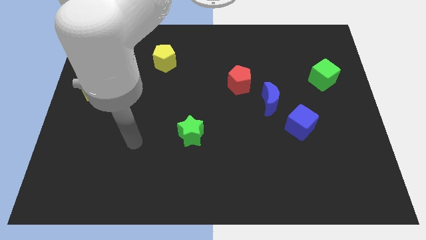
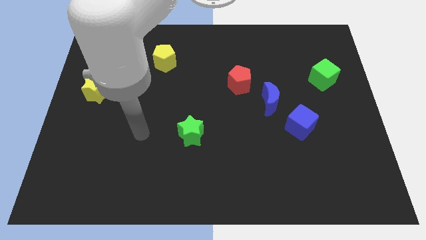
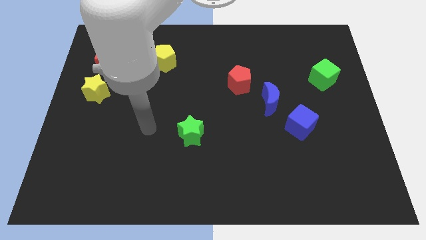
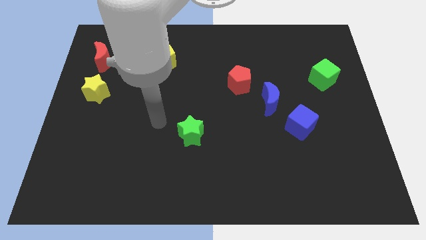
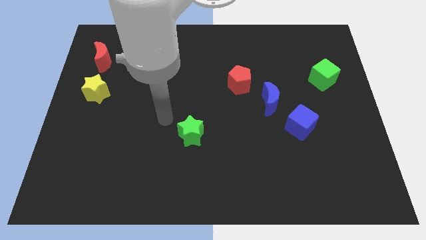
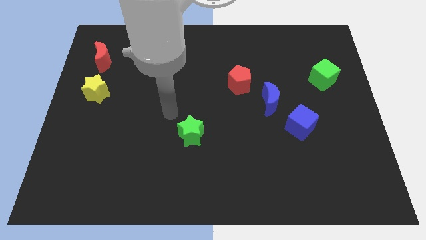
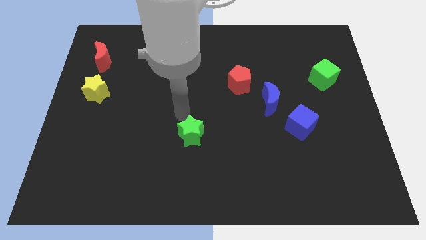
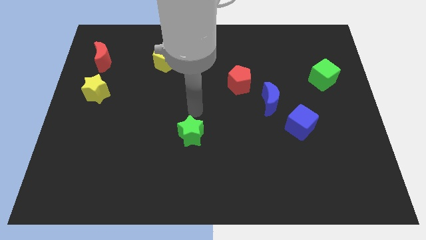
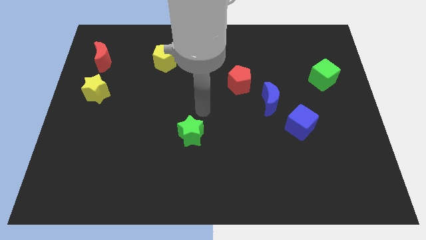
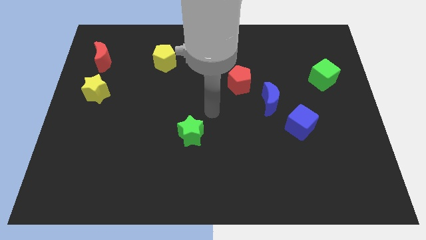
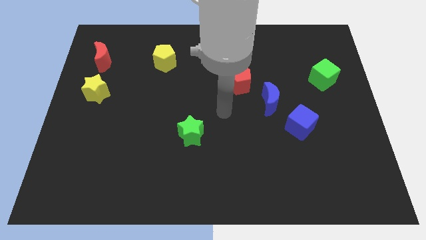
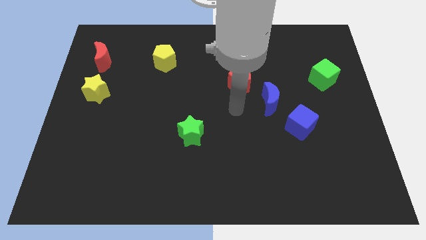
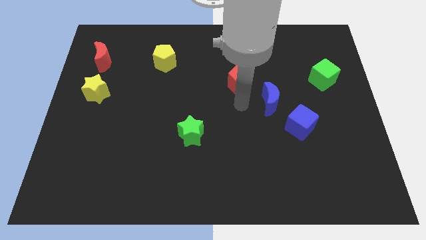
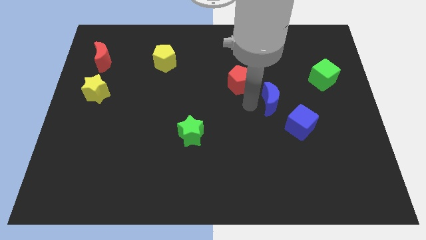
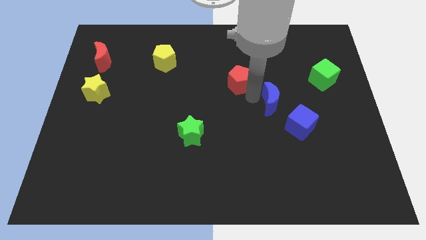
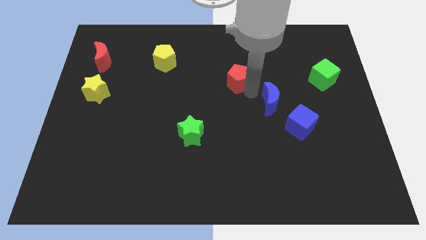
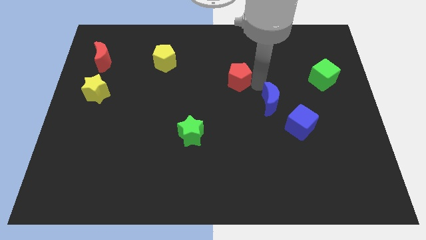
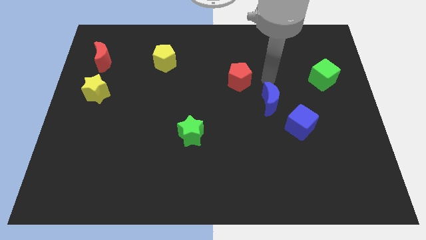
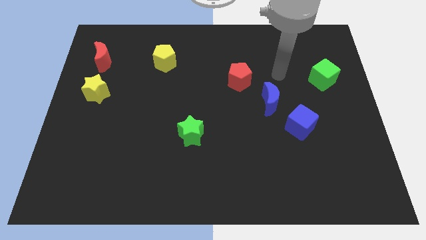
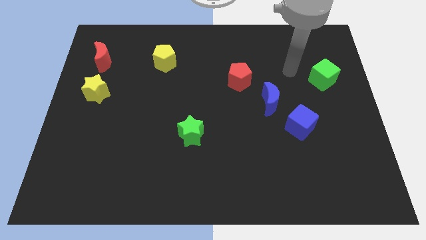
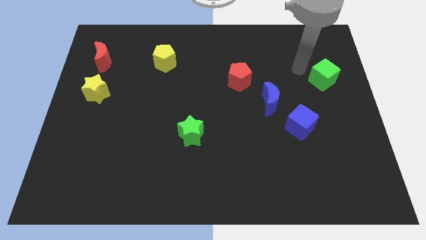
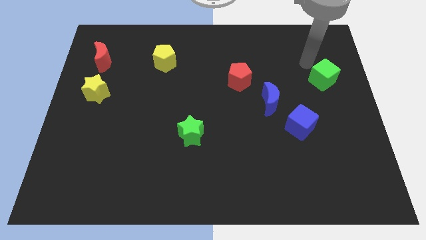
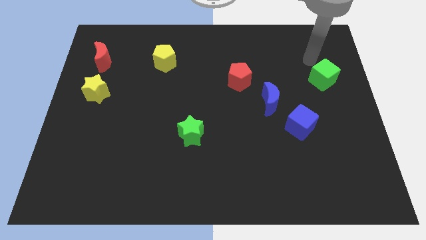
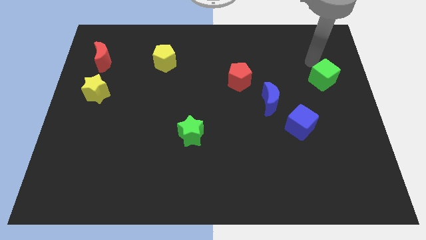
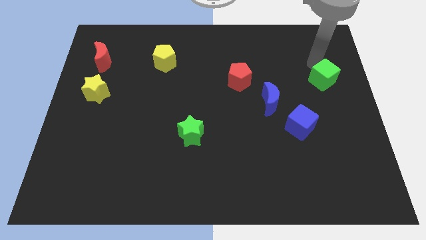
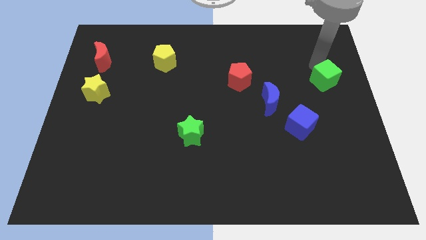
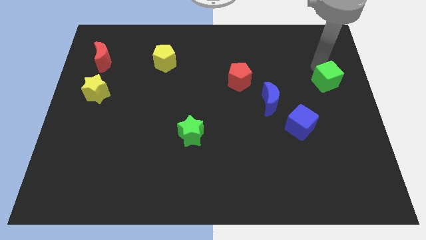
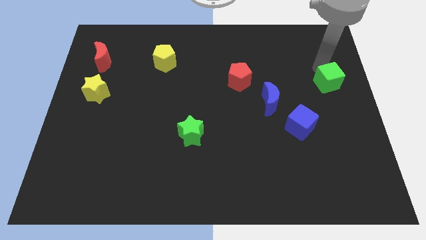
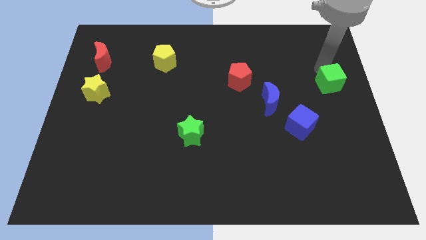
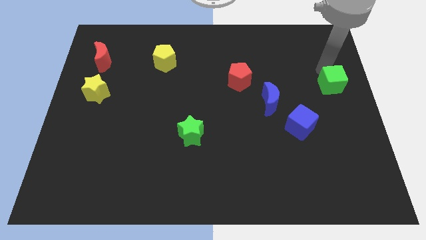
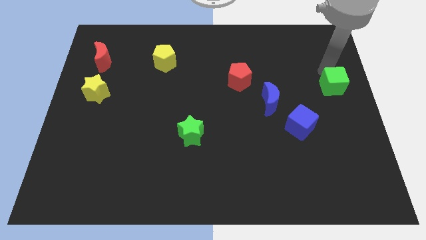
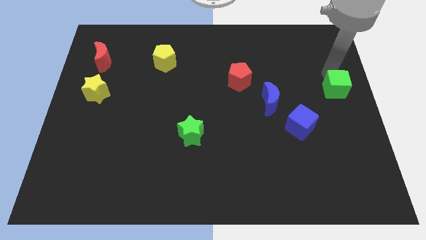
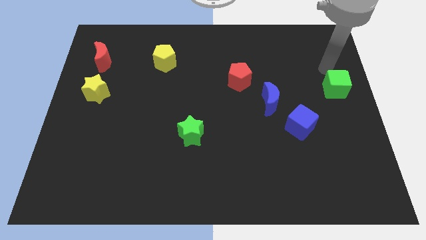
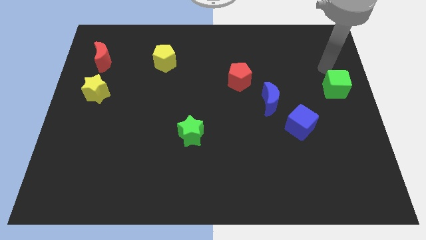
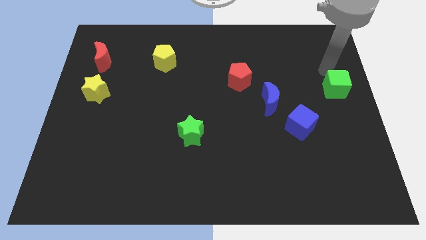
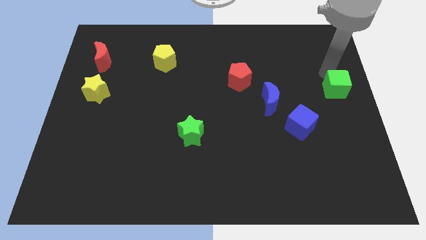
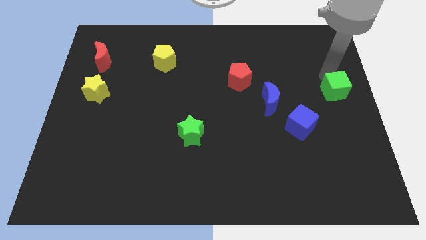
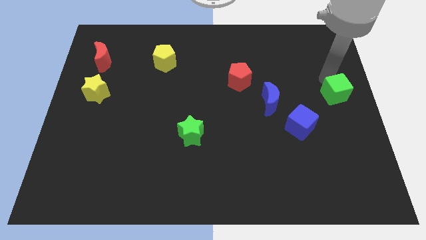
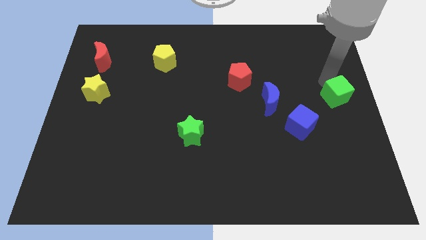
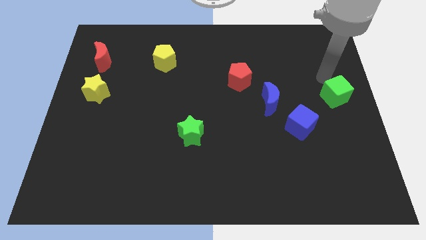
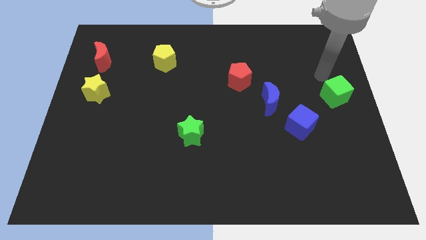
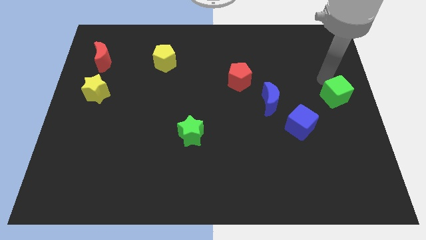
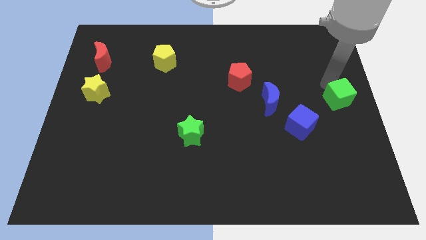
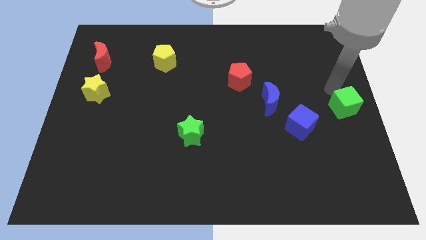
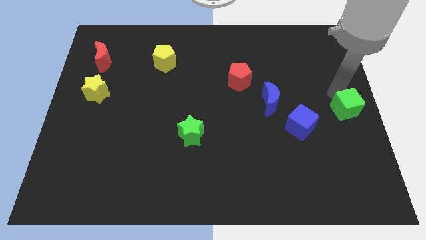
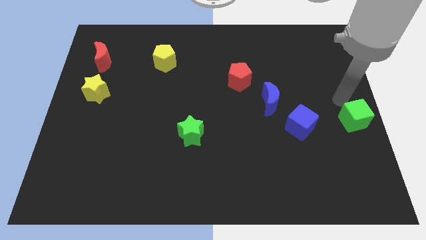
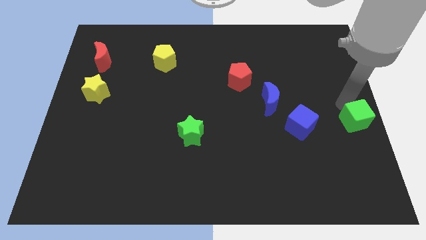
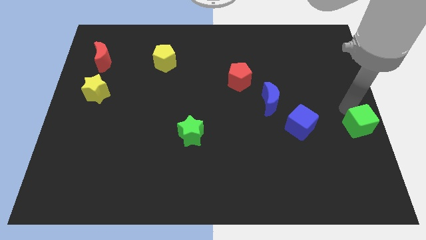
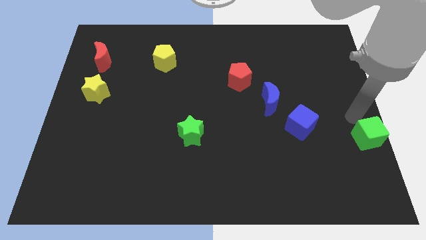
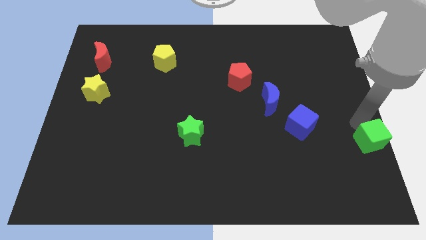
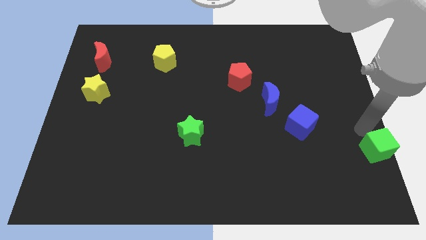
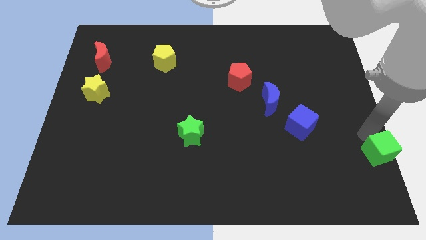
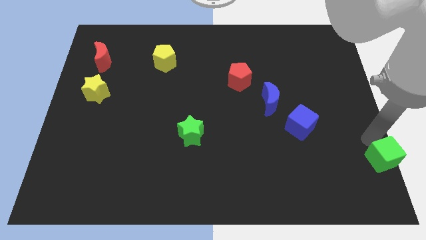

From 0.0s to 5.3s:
put the green cube to the bottom right

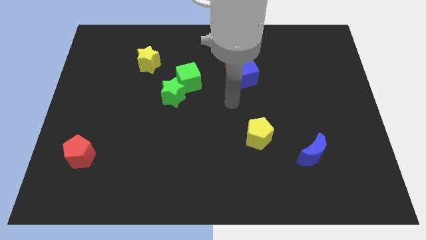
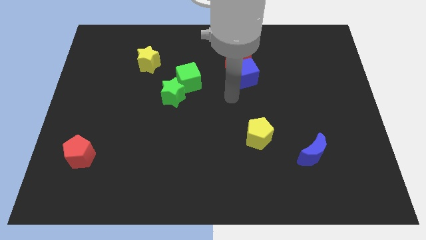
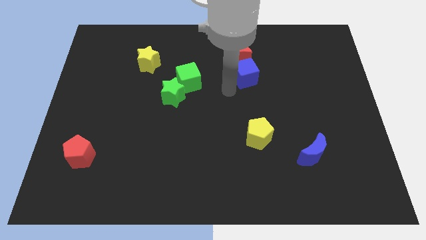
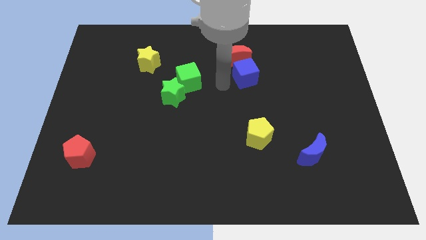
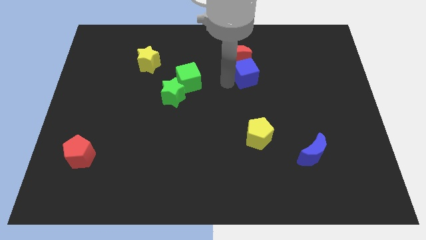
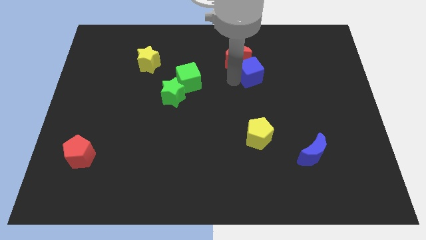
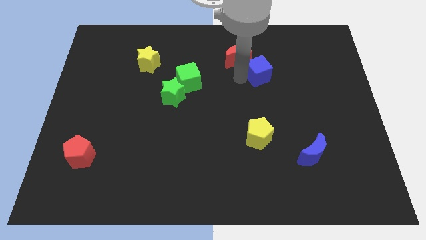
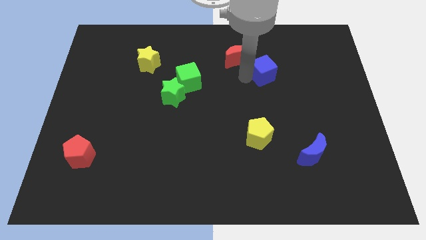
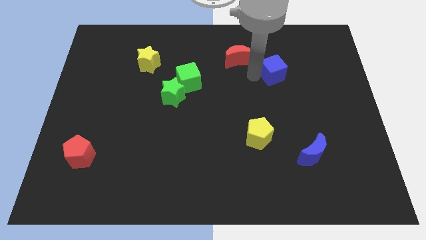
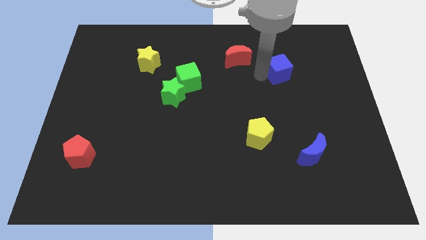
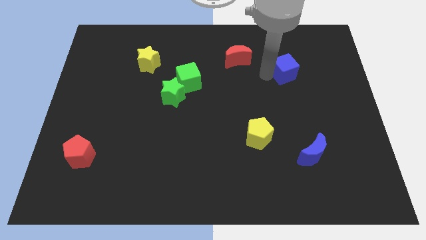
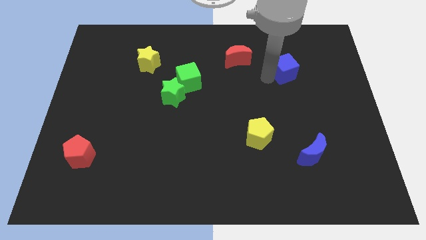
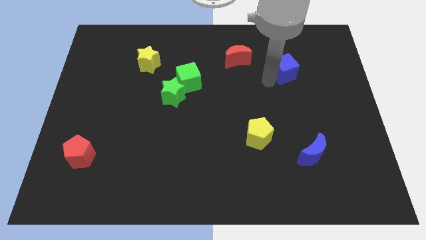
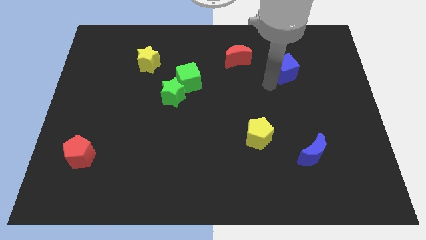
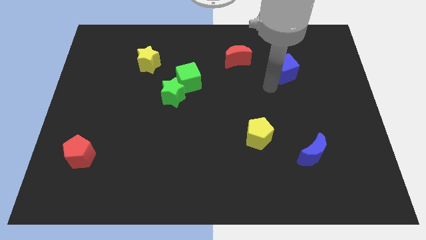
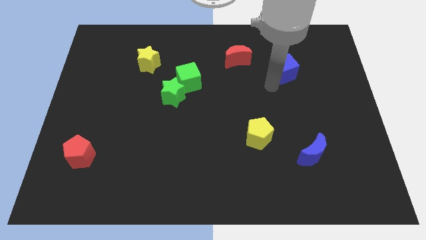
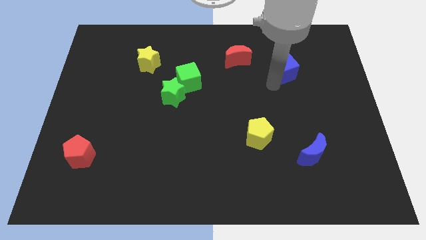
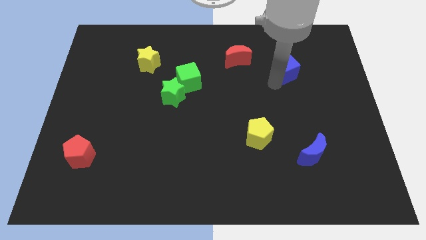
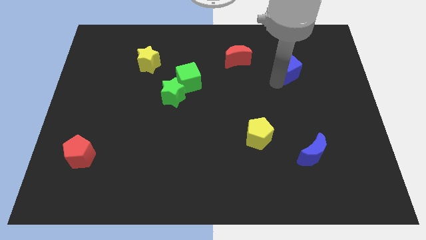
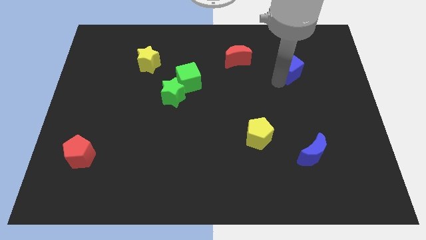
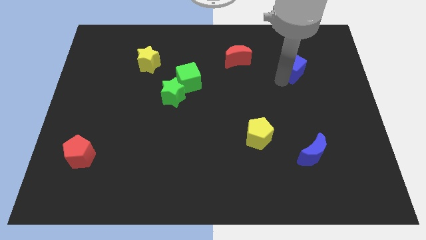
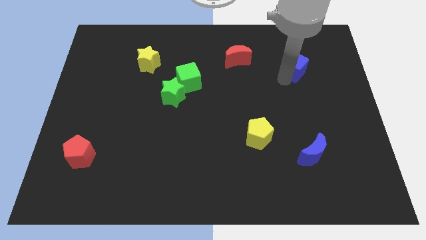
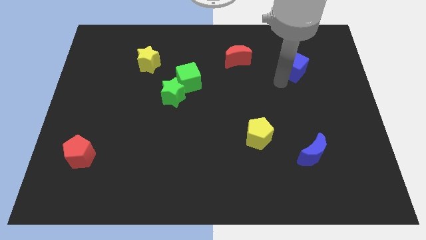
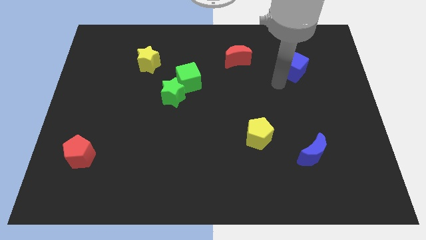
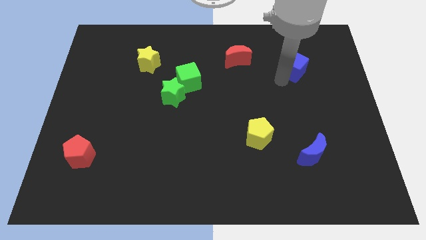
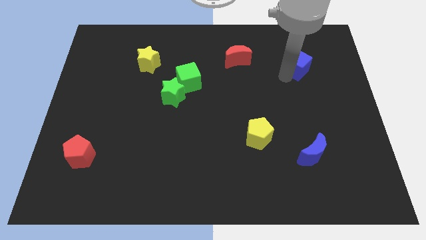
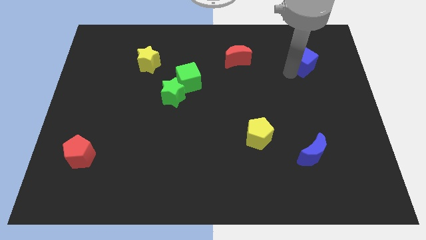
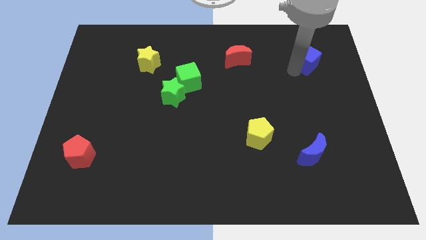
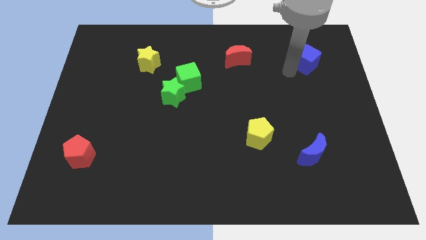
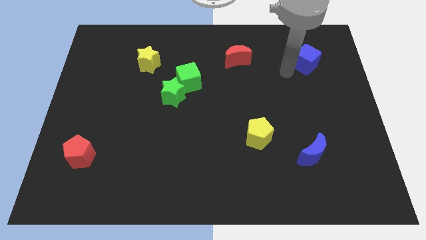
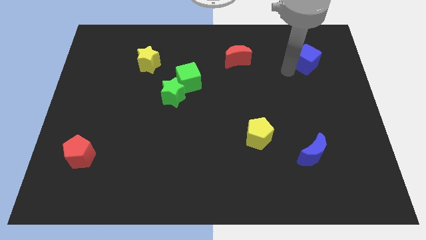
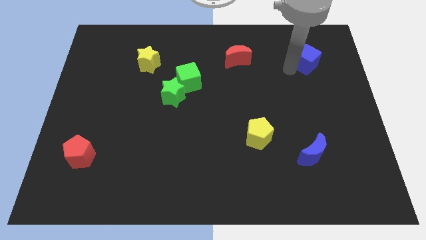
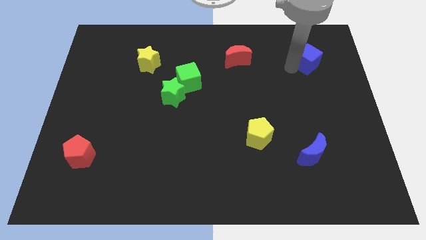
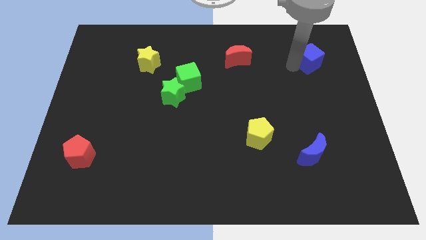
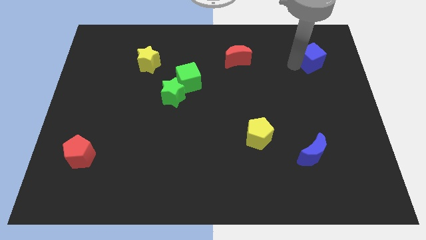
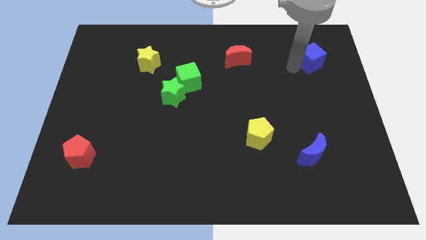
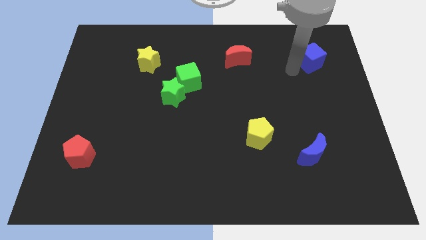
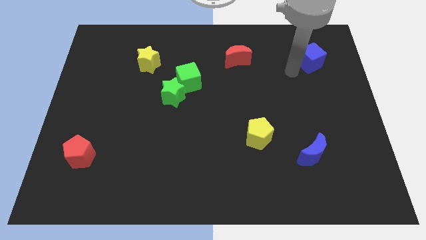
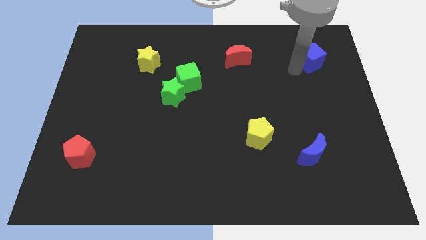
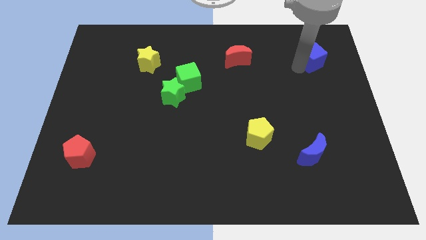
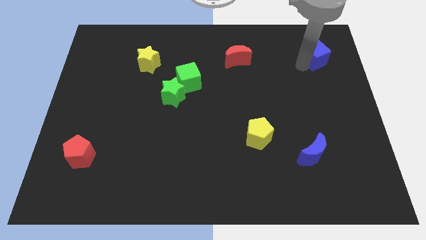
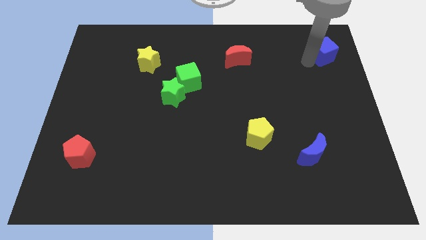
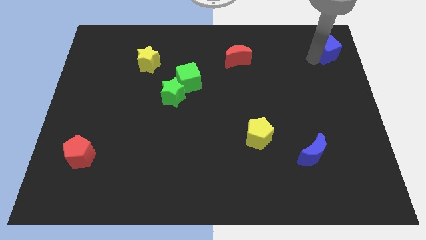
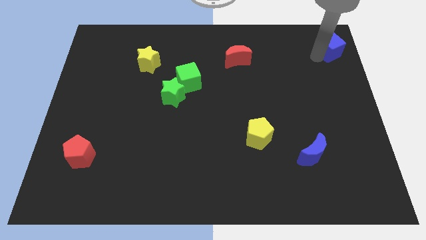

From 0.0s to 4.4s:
move the blue cube to the top right
